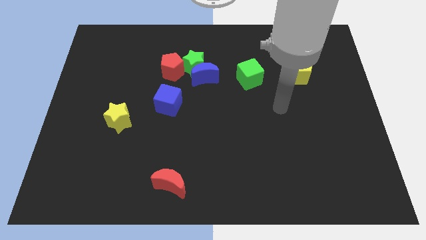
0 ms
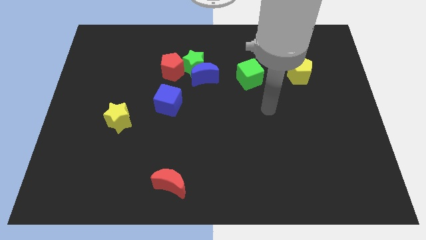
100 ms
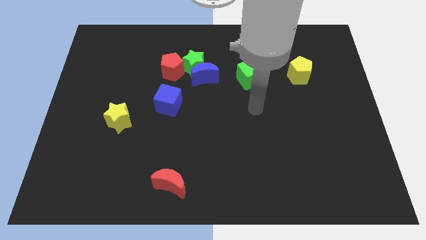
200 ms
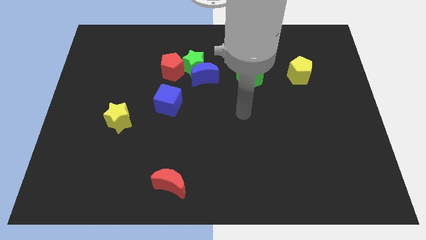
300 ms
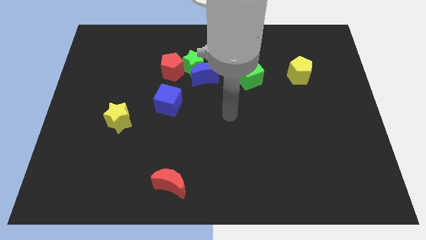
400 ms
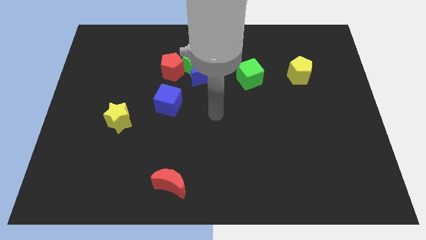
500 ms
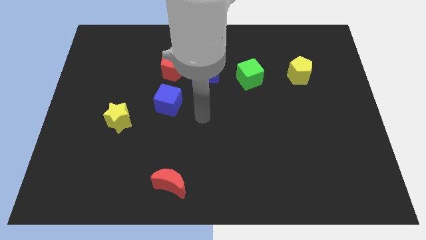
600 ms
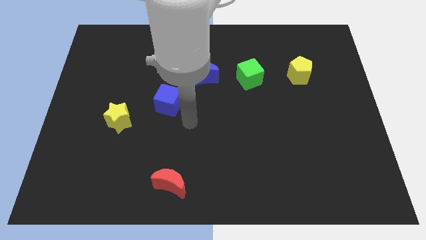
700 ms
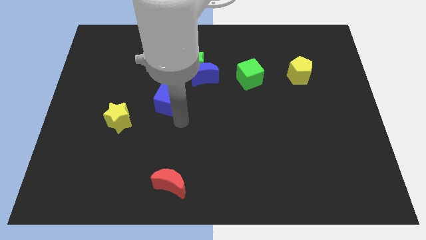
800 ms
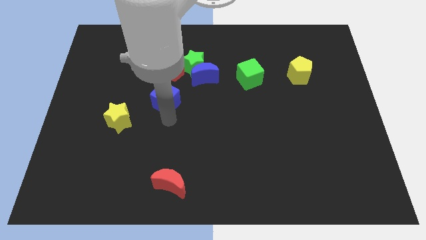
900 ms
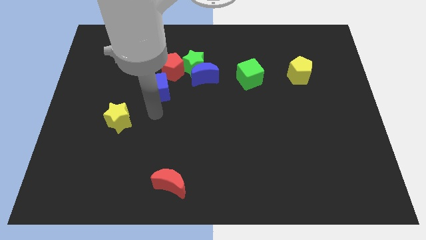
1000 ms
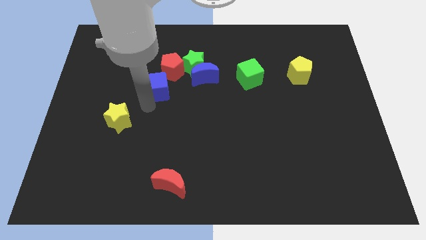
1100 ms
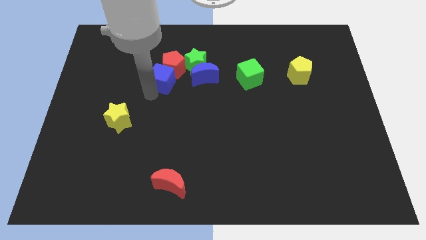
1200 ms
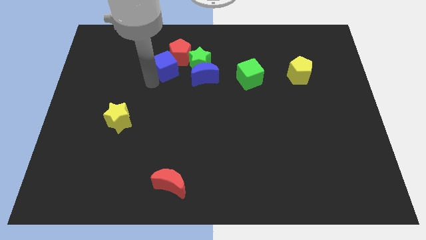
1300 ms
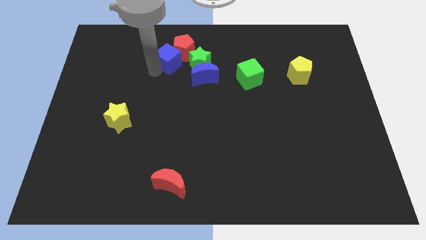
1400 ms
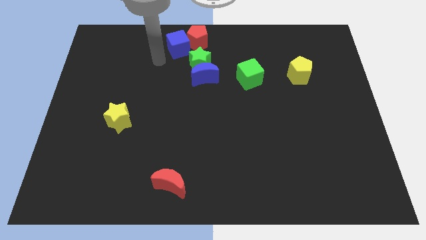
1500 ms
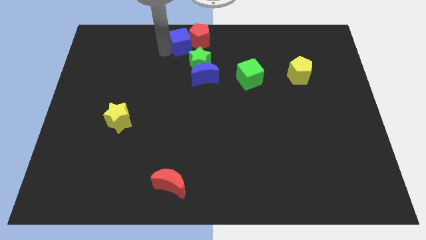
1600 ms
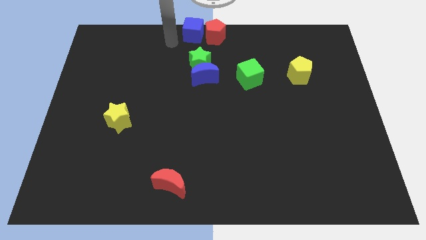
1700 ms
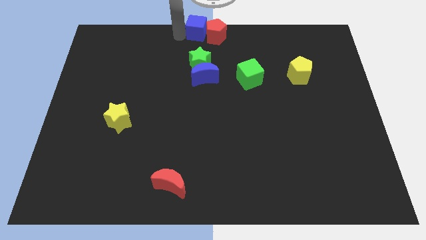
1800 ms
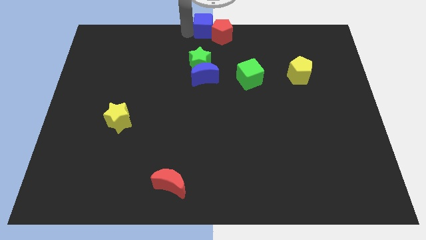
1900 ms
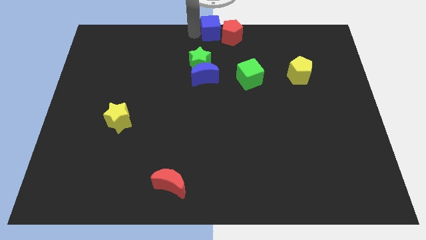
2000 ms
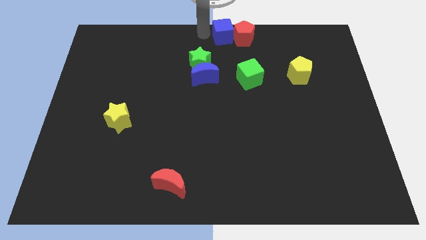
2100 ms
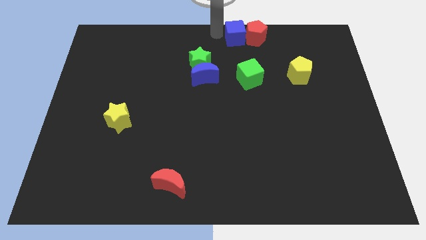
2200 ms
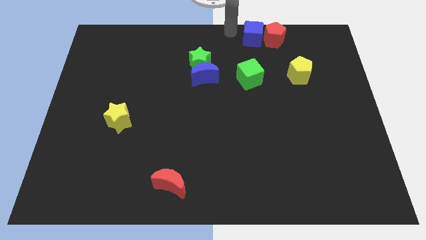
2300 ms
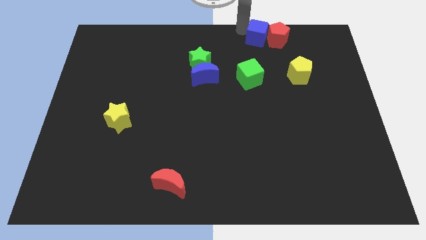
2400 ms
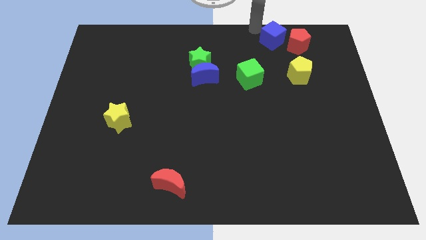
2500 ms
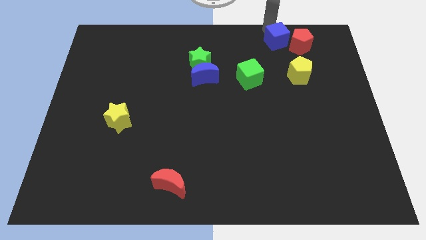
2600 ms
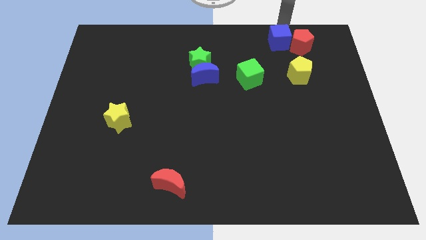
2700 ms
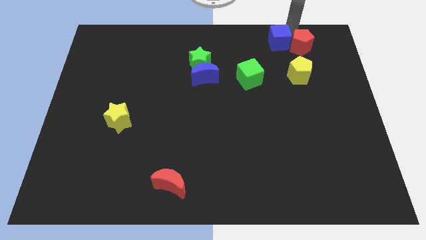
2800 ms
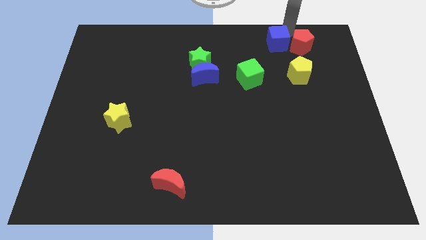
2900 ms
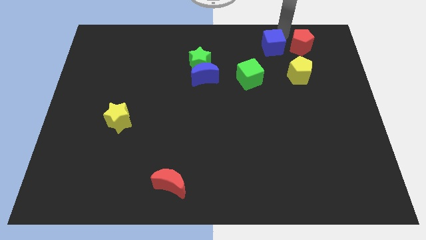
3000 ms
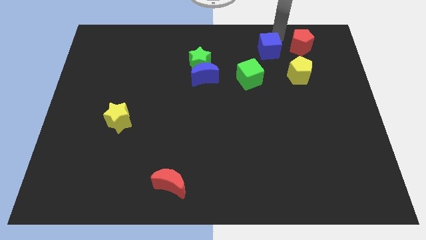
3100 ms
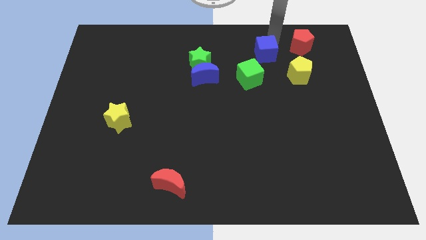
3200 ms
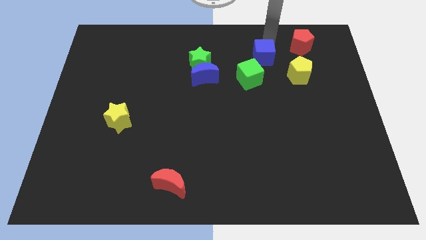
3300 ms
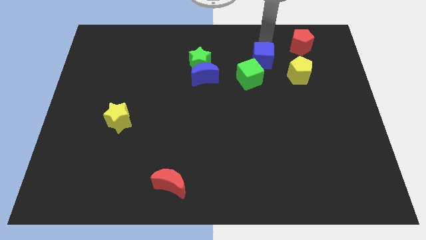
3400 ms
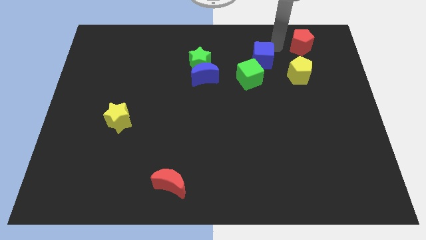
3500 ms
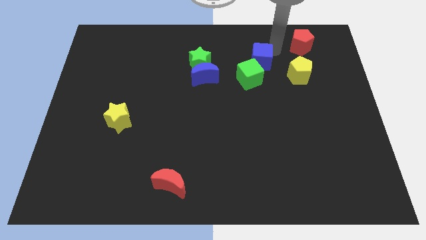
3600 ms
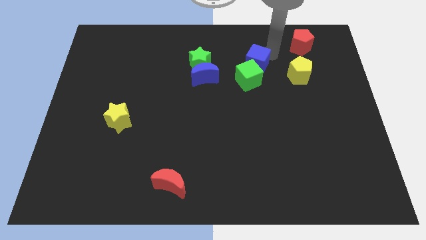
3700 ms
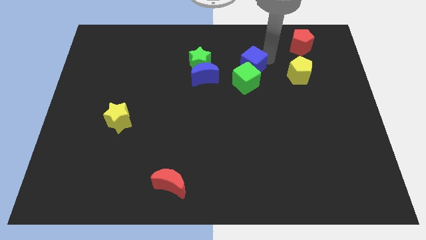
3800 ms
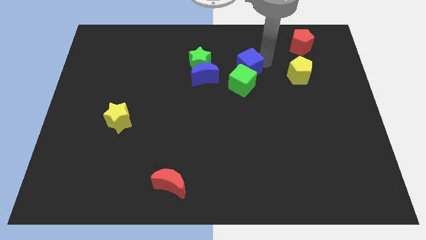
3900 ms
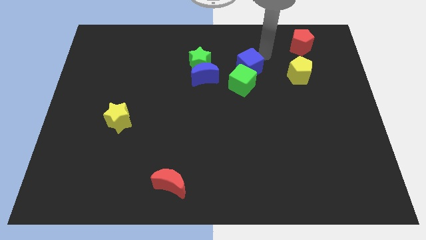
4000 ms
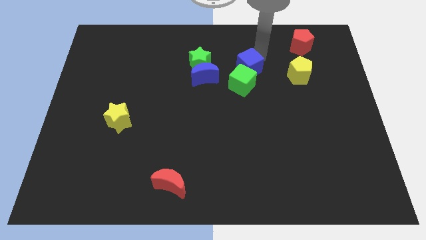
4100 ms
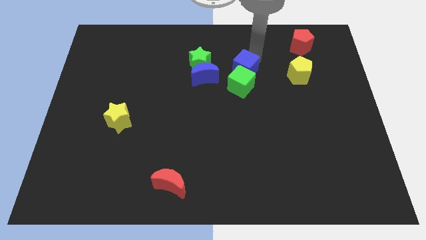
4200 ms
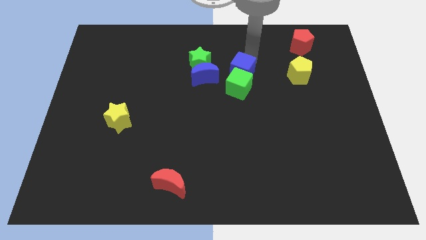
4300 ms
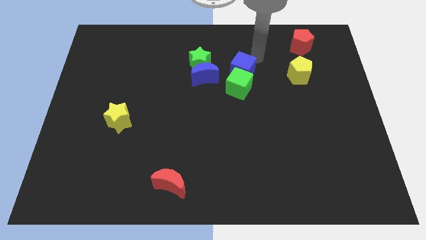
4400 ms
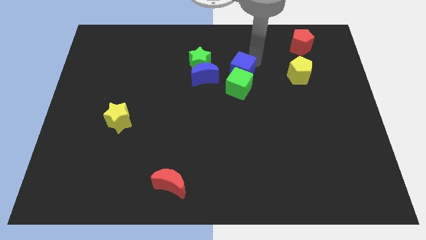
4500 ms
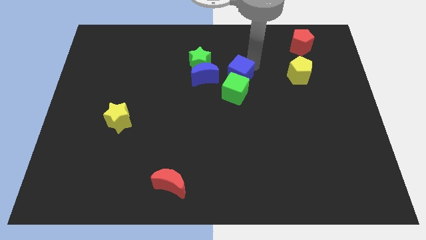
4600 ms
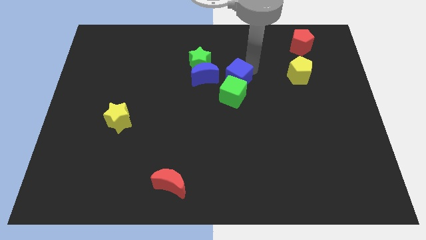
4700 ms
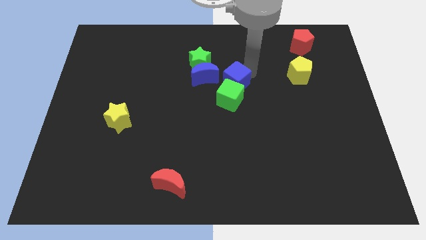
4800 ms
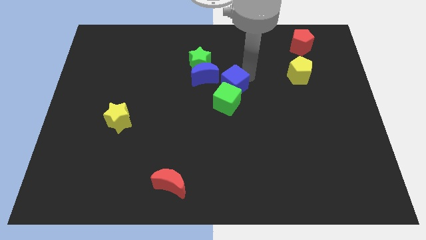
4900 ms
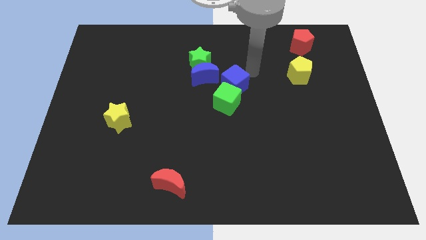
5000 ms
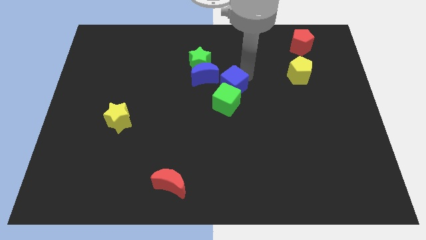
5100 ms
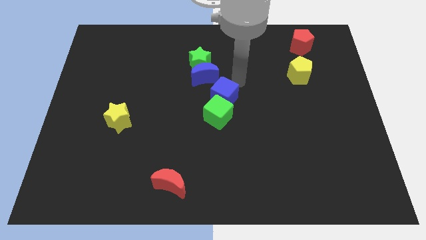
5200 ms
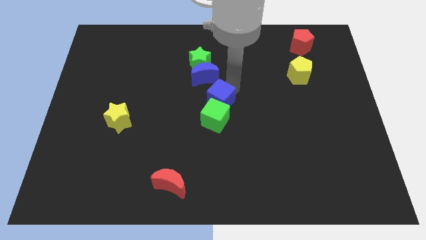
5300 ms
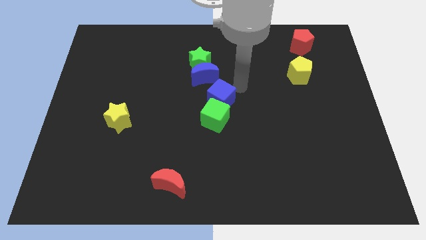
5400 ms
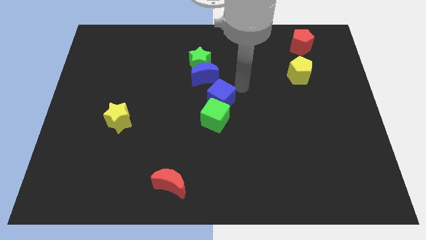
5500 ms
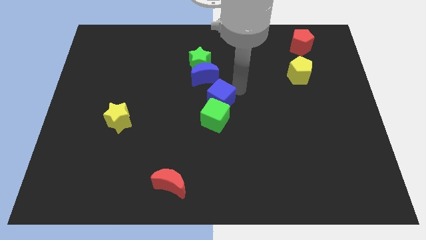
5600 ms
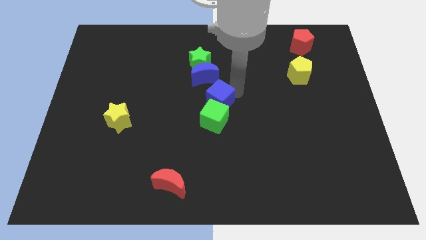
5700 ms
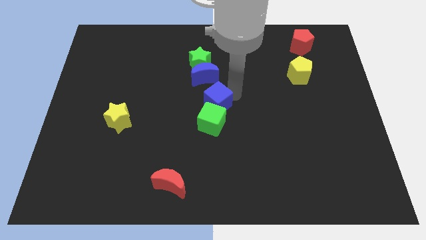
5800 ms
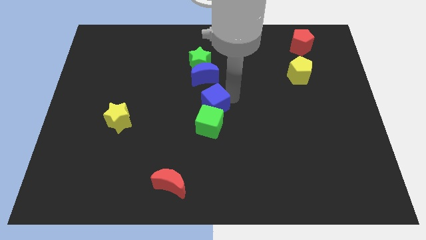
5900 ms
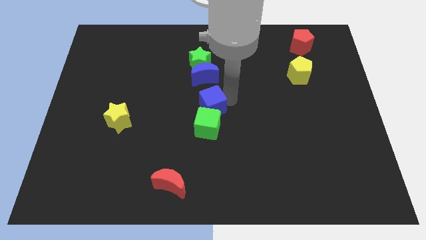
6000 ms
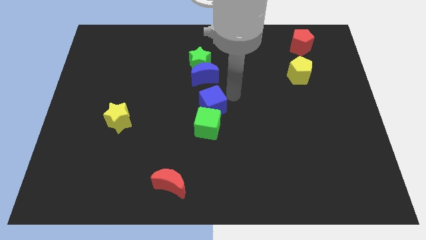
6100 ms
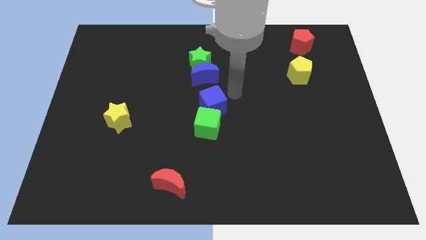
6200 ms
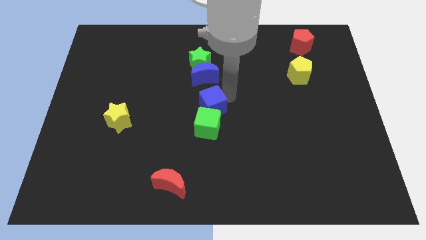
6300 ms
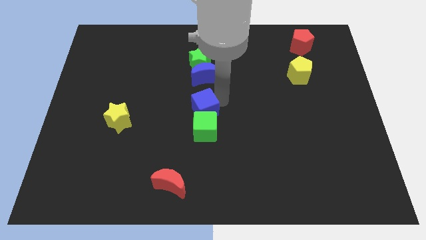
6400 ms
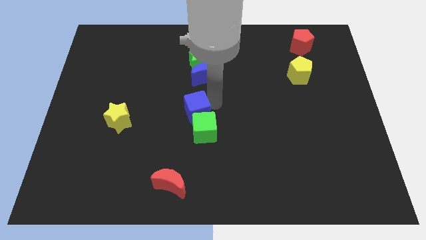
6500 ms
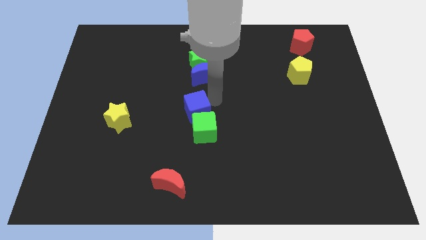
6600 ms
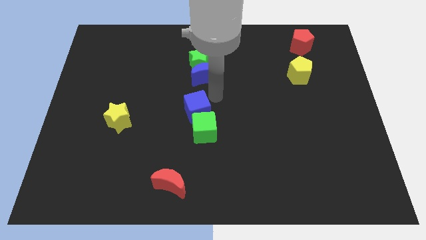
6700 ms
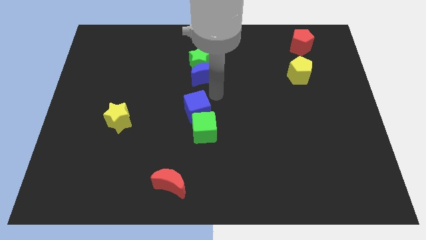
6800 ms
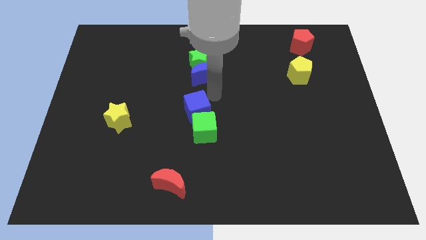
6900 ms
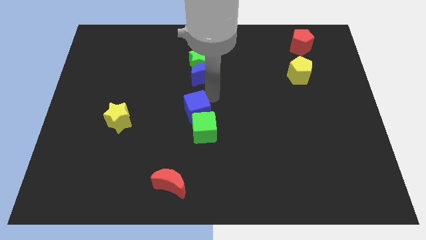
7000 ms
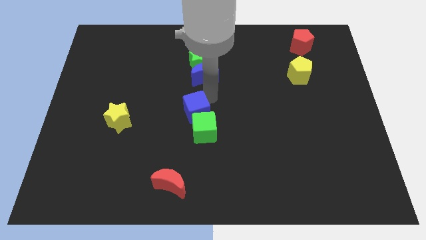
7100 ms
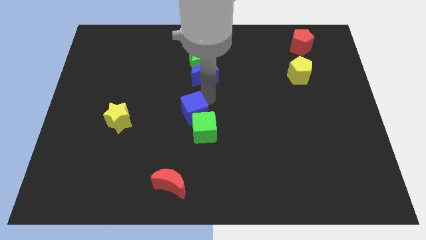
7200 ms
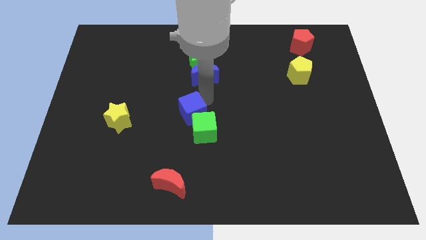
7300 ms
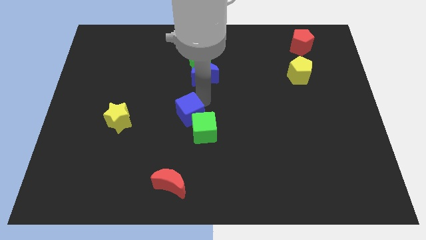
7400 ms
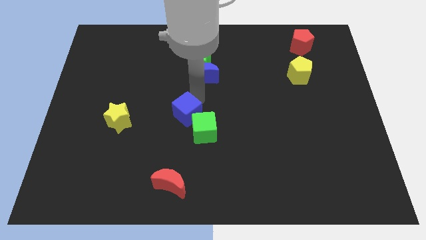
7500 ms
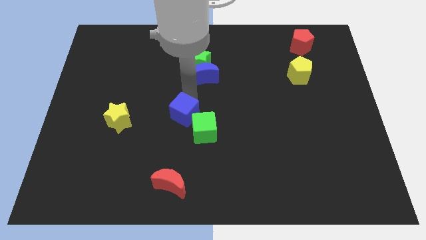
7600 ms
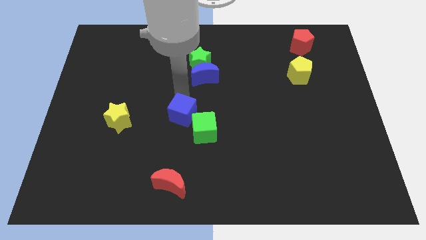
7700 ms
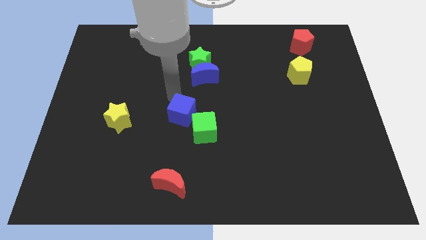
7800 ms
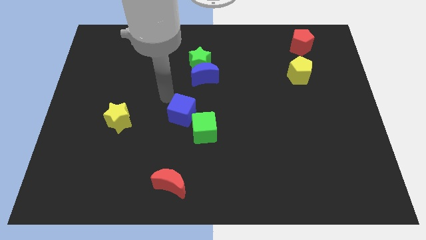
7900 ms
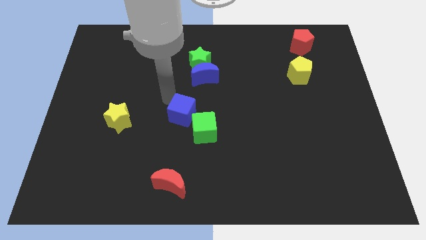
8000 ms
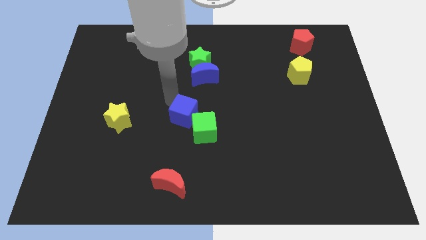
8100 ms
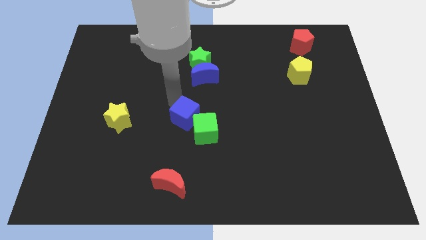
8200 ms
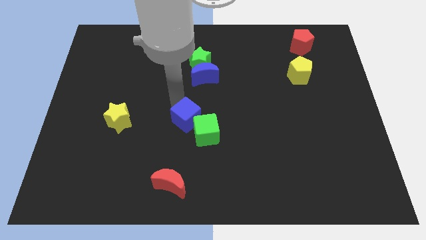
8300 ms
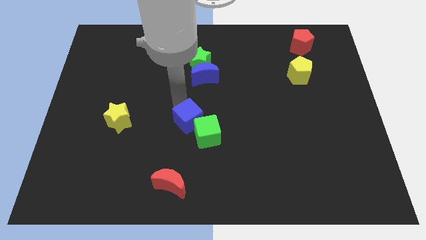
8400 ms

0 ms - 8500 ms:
slightly move the blue cube down and right
